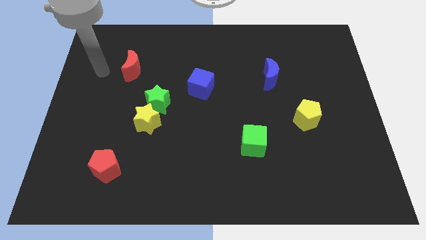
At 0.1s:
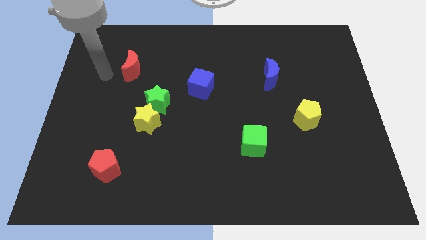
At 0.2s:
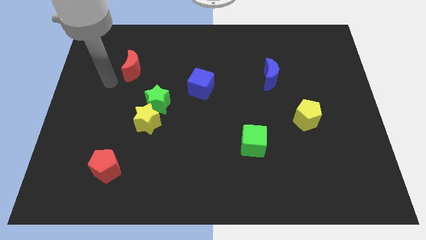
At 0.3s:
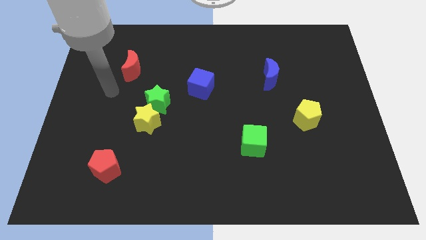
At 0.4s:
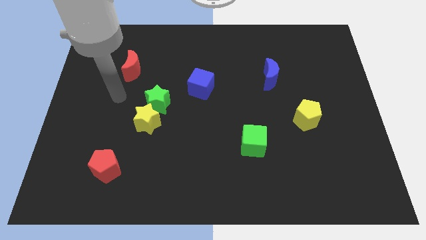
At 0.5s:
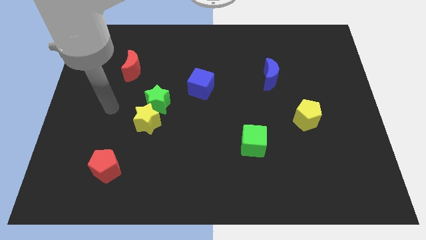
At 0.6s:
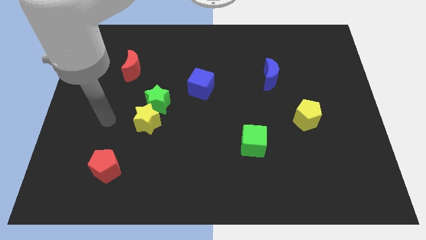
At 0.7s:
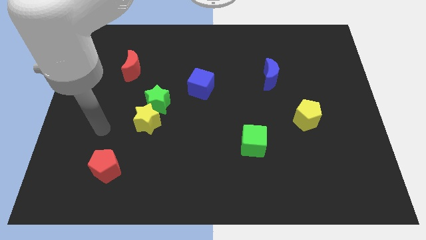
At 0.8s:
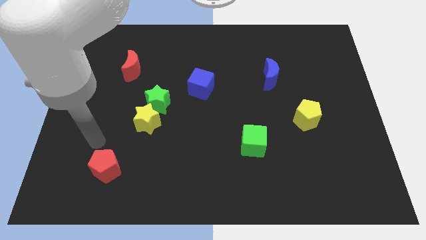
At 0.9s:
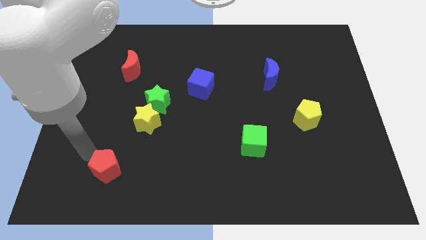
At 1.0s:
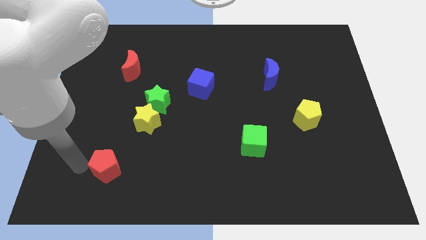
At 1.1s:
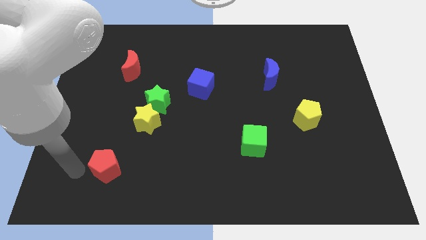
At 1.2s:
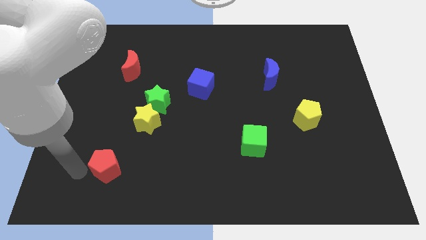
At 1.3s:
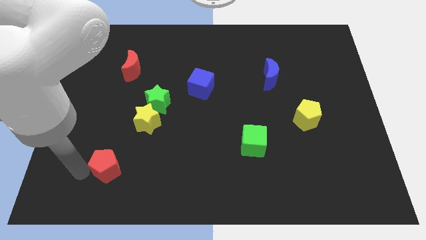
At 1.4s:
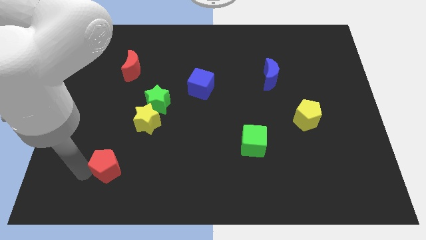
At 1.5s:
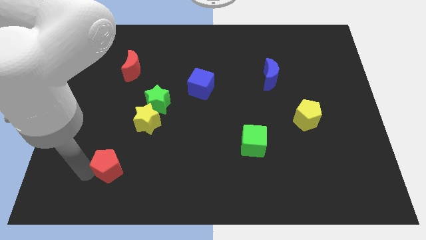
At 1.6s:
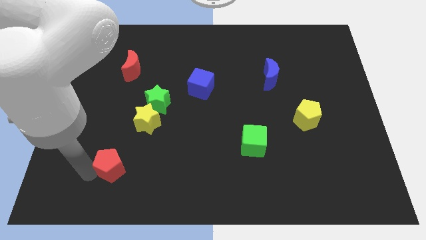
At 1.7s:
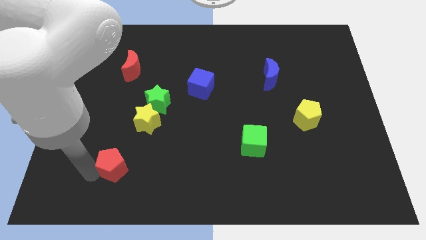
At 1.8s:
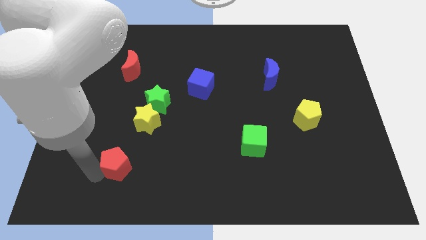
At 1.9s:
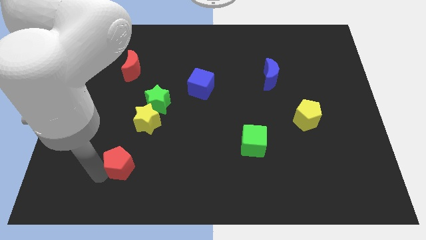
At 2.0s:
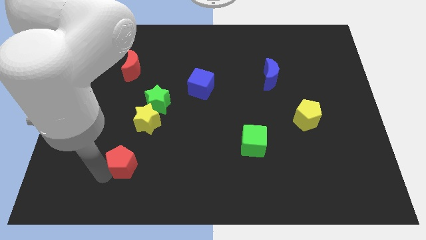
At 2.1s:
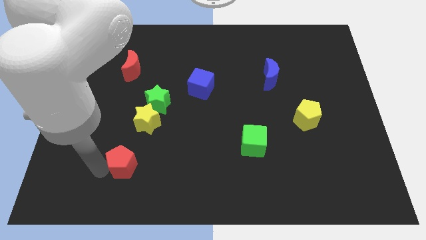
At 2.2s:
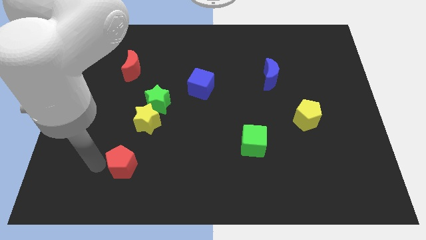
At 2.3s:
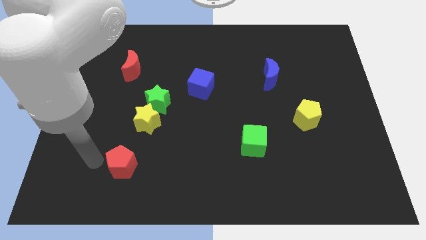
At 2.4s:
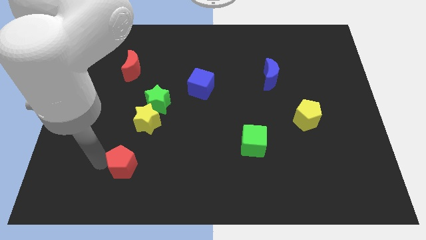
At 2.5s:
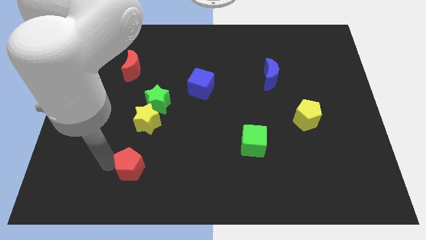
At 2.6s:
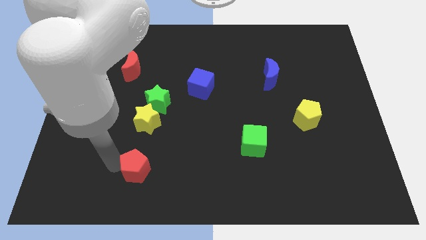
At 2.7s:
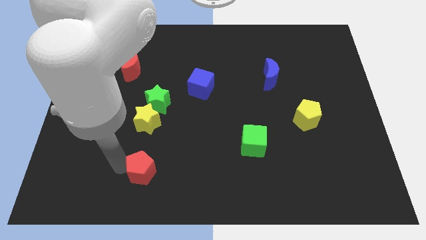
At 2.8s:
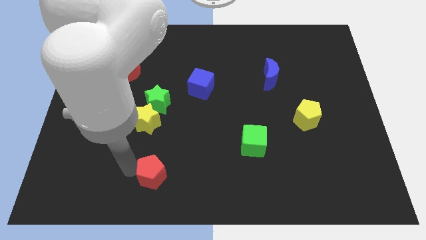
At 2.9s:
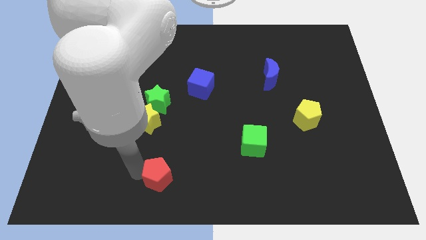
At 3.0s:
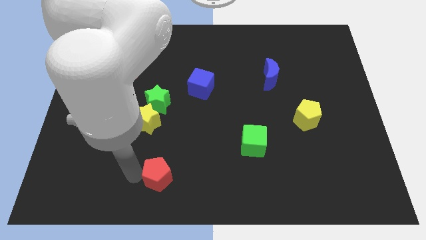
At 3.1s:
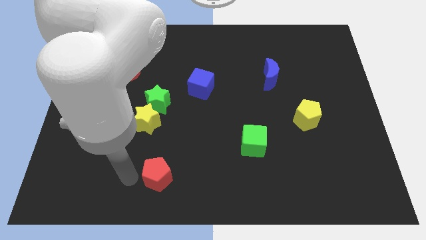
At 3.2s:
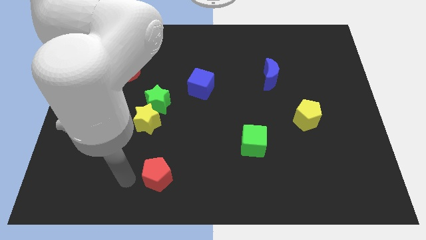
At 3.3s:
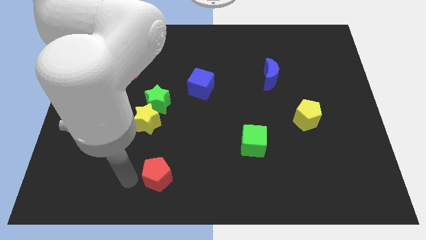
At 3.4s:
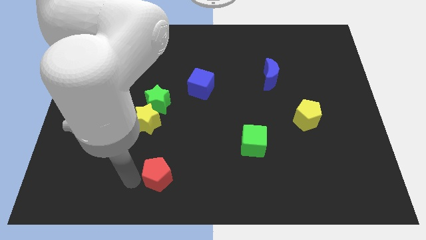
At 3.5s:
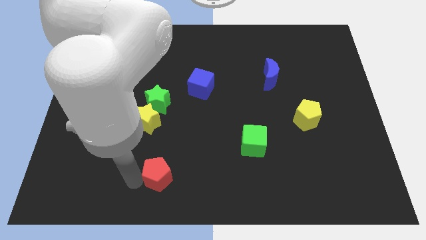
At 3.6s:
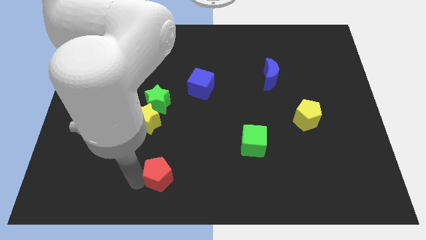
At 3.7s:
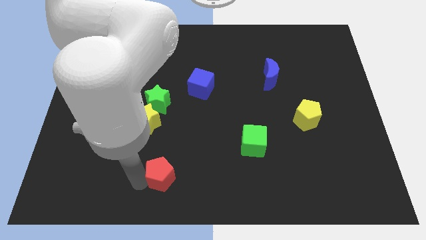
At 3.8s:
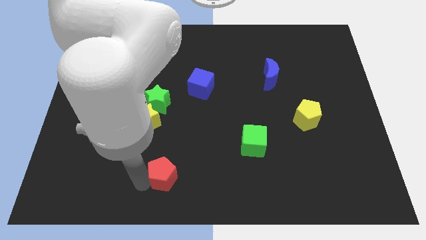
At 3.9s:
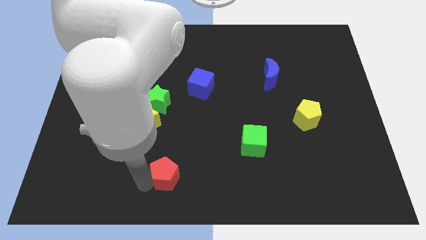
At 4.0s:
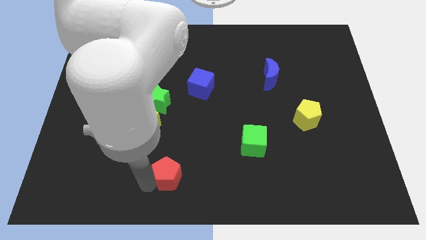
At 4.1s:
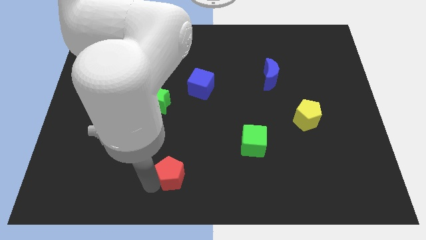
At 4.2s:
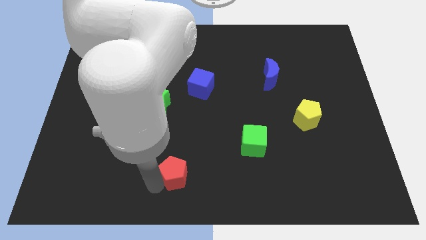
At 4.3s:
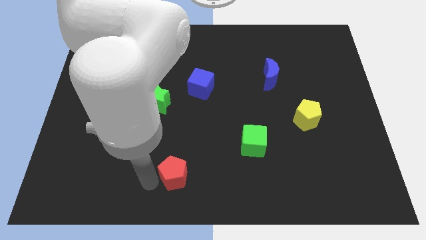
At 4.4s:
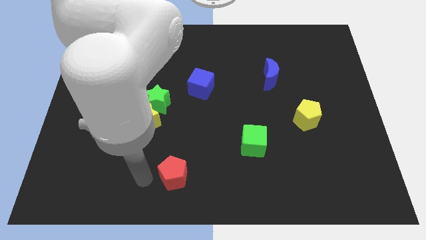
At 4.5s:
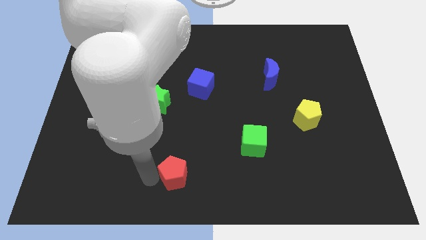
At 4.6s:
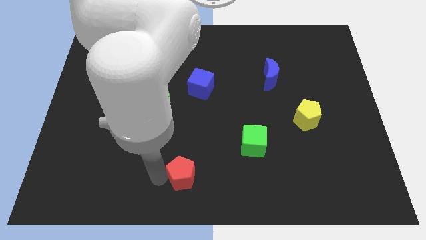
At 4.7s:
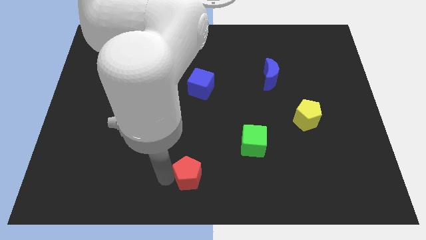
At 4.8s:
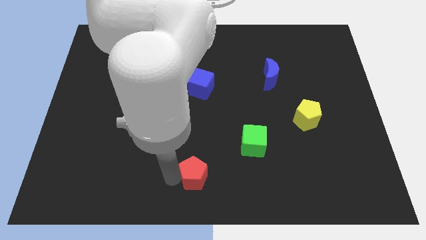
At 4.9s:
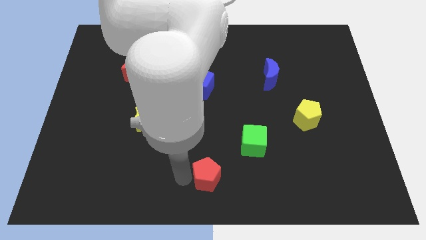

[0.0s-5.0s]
push the red pentagon right

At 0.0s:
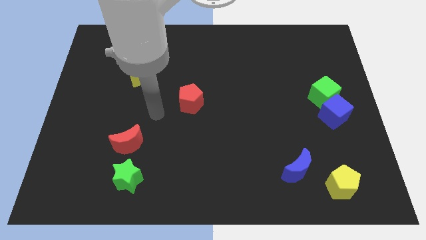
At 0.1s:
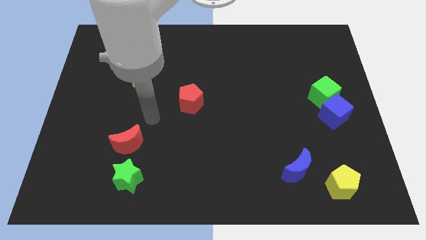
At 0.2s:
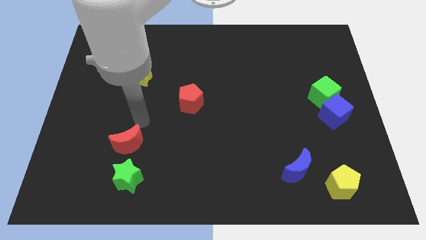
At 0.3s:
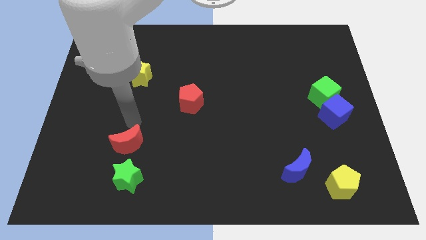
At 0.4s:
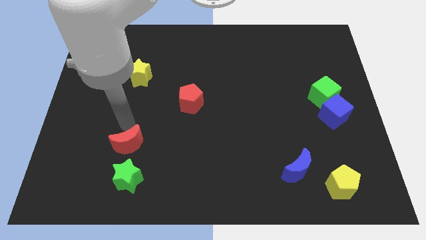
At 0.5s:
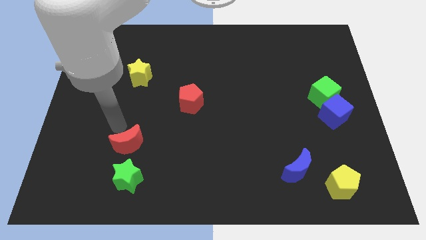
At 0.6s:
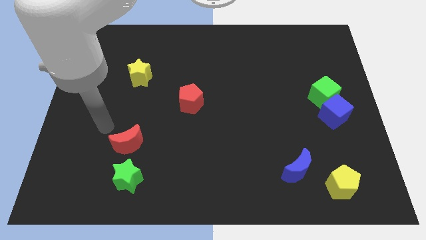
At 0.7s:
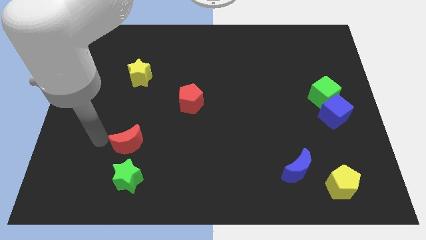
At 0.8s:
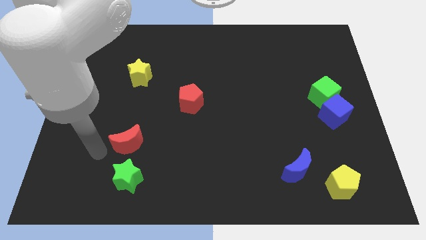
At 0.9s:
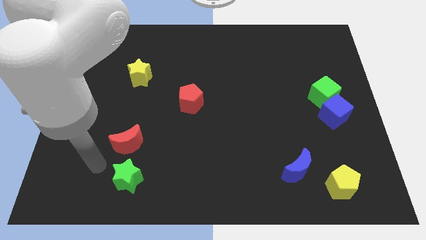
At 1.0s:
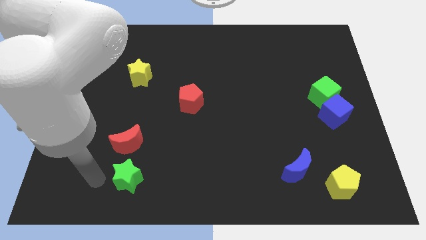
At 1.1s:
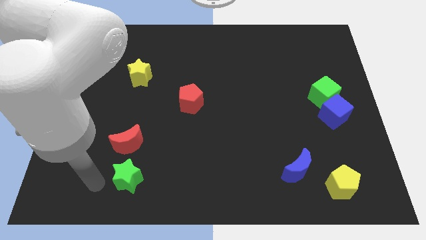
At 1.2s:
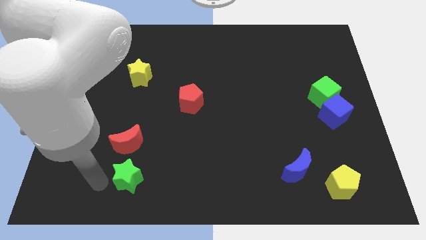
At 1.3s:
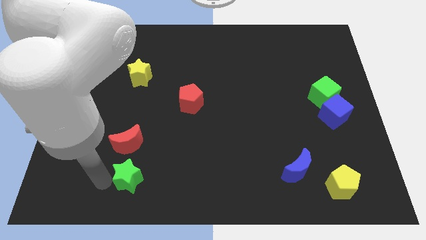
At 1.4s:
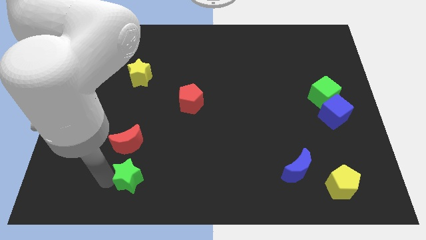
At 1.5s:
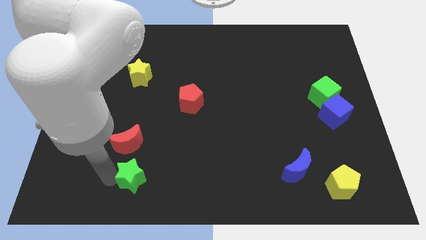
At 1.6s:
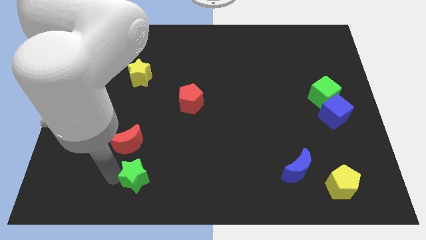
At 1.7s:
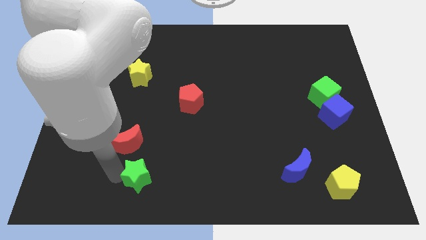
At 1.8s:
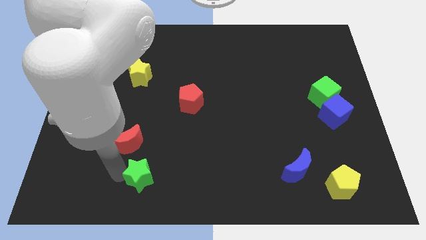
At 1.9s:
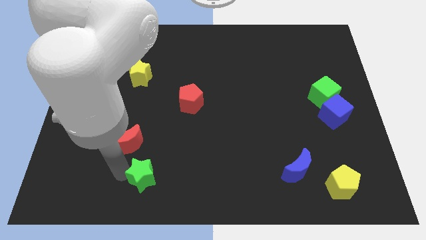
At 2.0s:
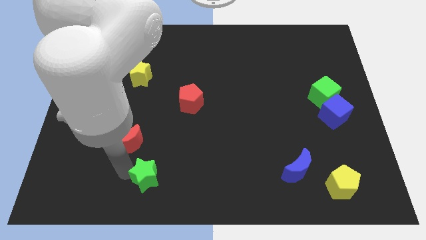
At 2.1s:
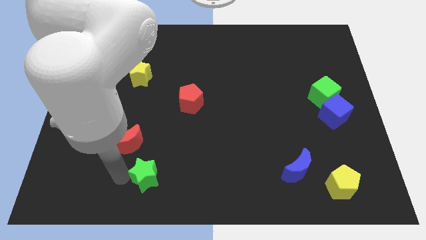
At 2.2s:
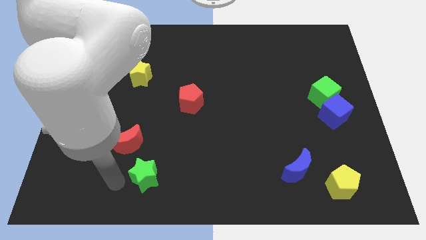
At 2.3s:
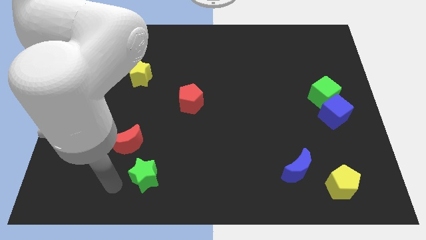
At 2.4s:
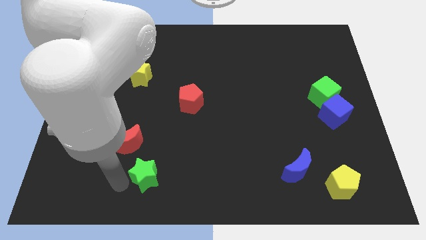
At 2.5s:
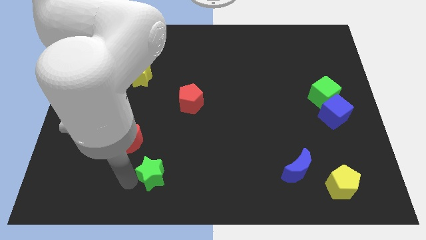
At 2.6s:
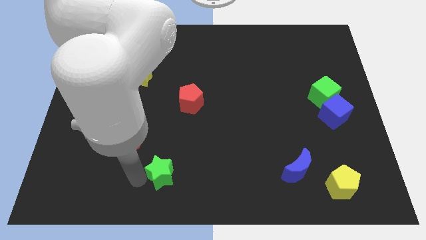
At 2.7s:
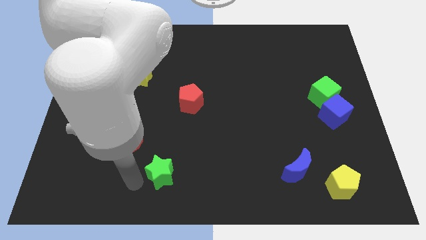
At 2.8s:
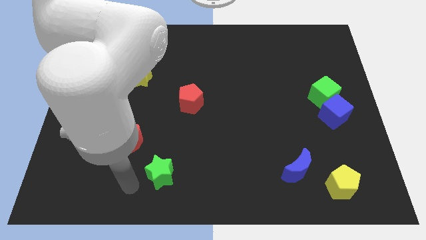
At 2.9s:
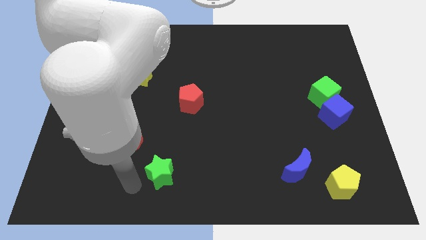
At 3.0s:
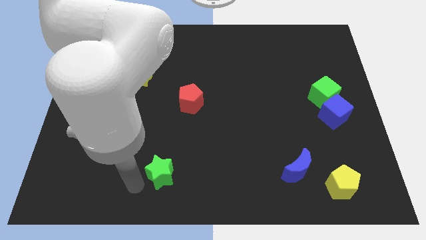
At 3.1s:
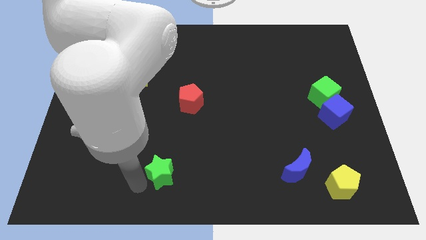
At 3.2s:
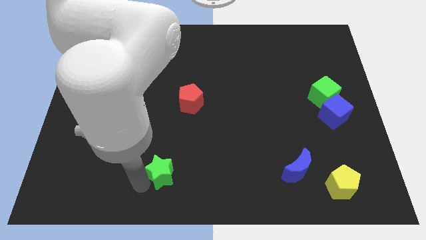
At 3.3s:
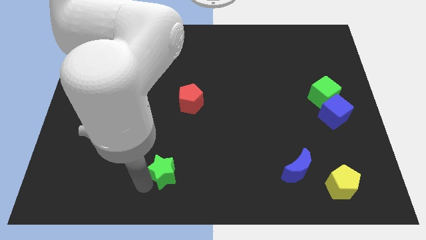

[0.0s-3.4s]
push the green star right somewhat

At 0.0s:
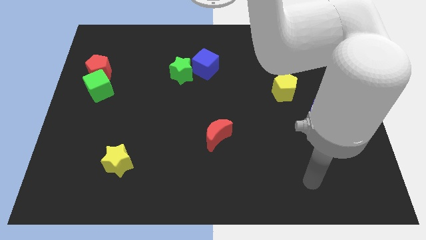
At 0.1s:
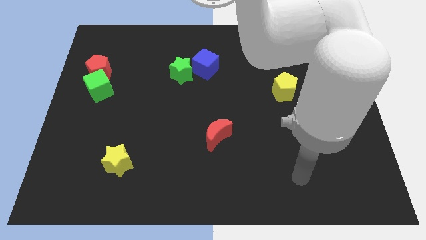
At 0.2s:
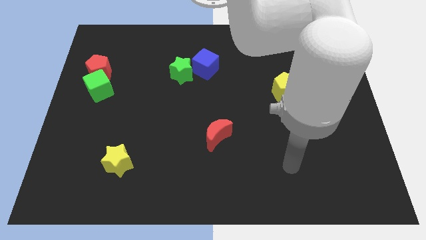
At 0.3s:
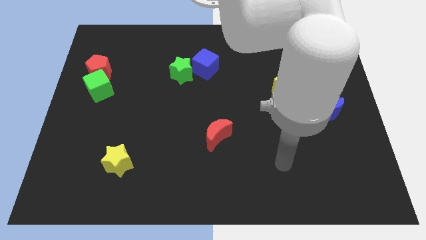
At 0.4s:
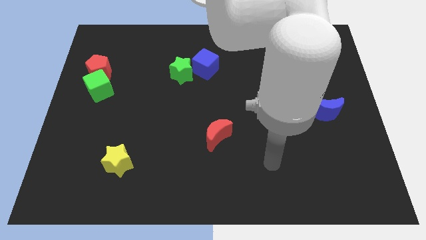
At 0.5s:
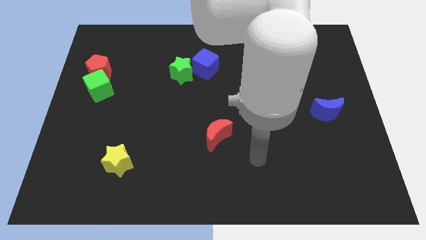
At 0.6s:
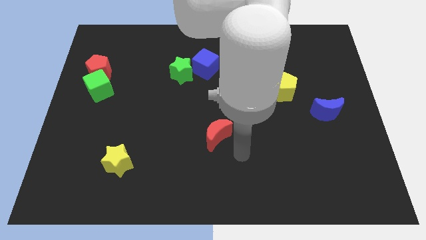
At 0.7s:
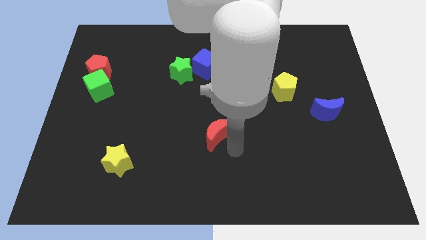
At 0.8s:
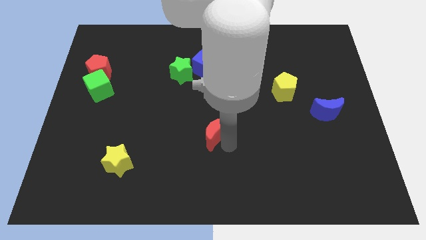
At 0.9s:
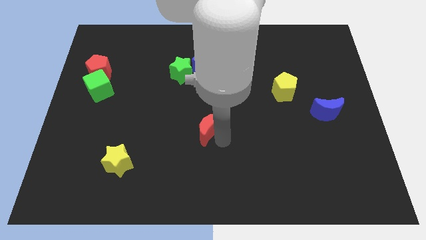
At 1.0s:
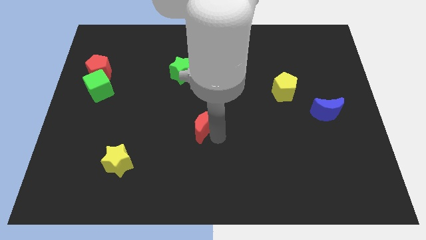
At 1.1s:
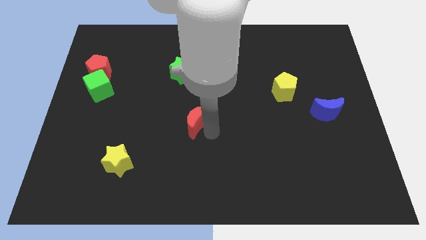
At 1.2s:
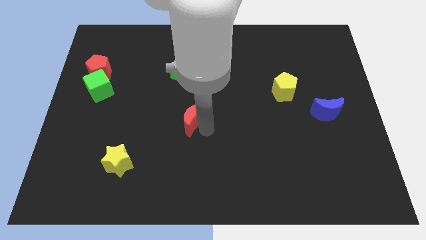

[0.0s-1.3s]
slide the red moon somewhat upwards and then to the left
